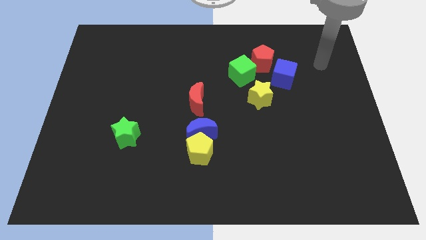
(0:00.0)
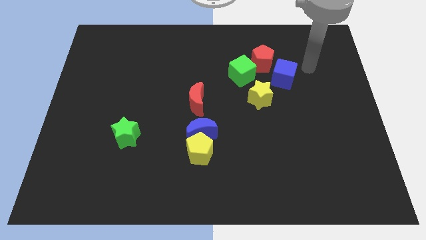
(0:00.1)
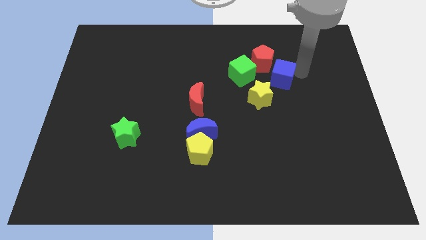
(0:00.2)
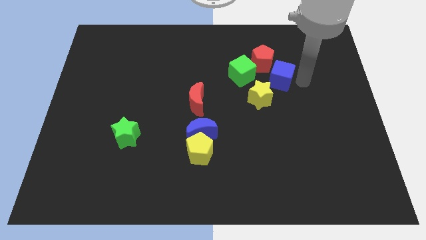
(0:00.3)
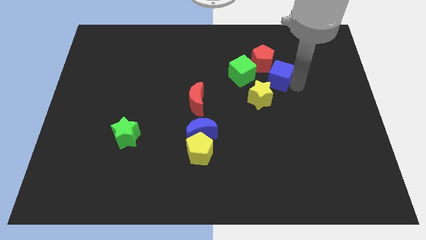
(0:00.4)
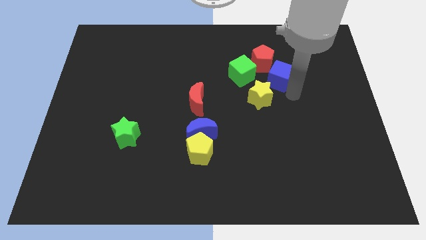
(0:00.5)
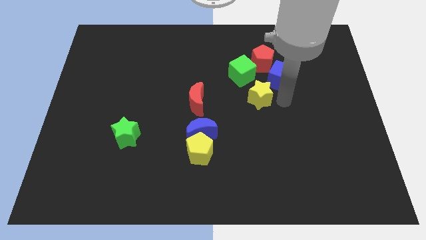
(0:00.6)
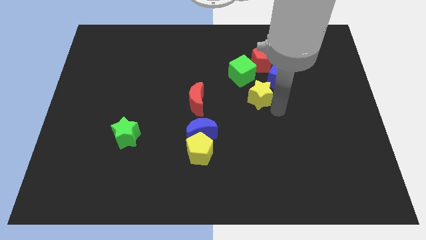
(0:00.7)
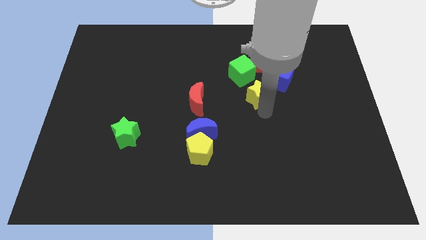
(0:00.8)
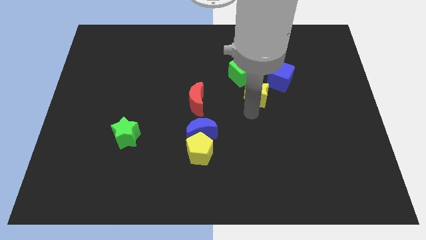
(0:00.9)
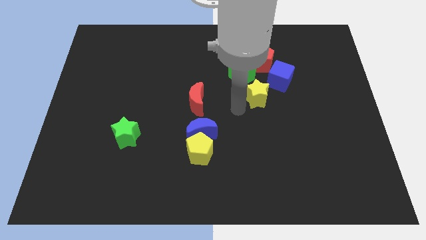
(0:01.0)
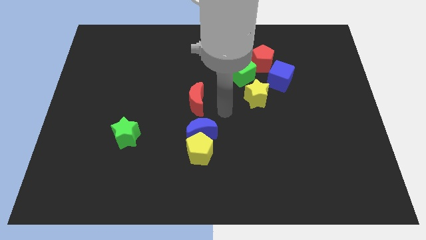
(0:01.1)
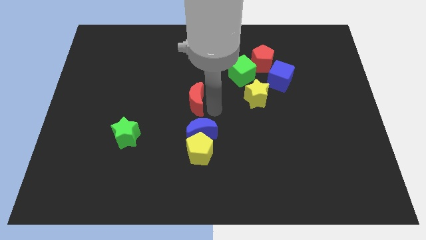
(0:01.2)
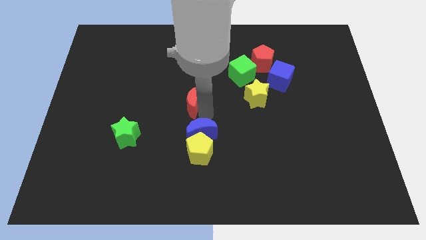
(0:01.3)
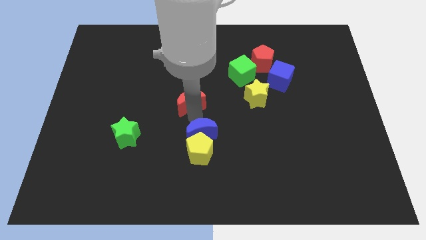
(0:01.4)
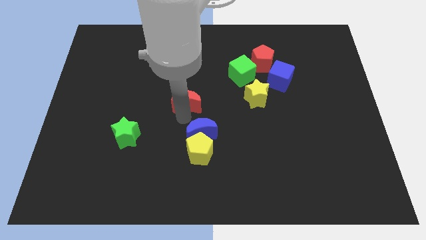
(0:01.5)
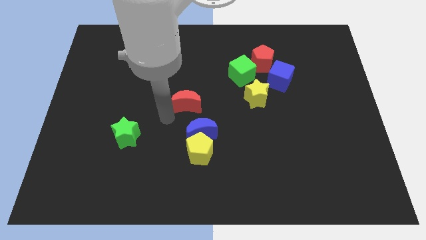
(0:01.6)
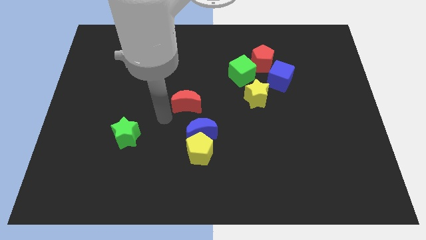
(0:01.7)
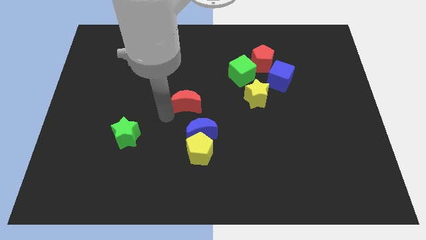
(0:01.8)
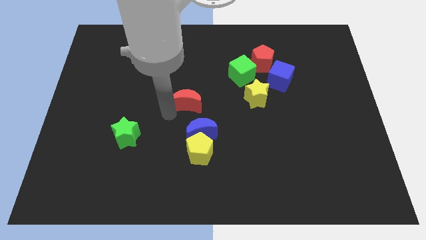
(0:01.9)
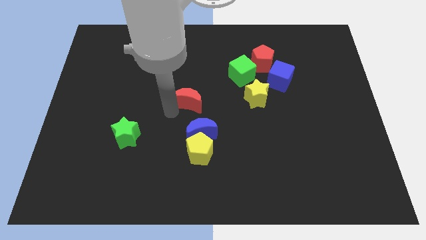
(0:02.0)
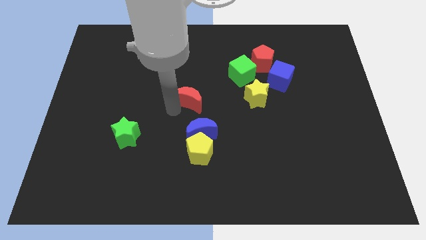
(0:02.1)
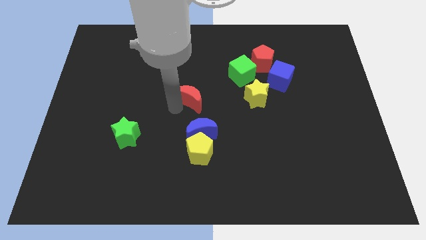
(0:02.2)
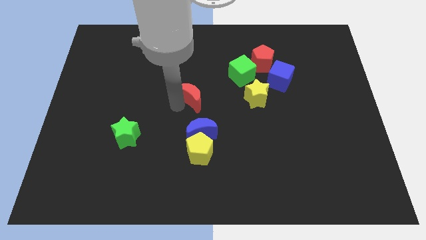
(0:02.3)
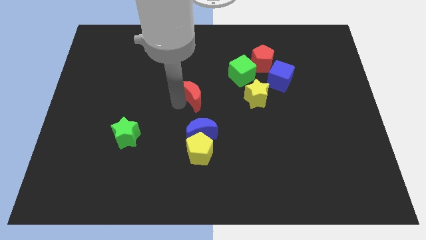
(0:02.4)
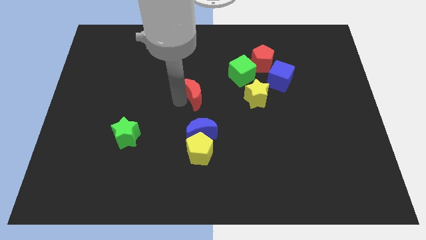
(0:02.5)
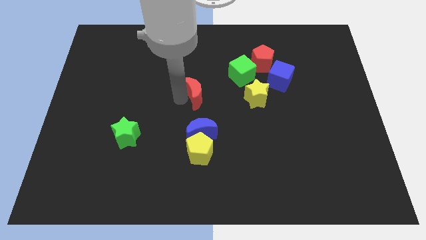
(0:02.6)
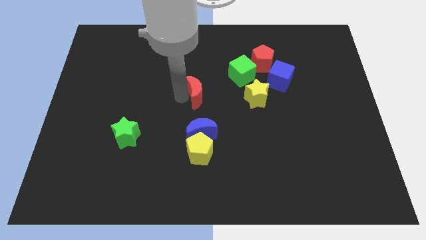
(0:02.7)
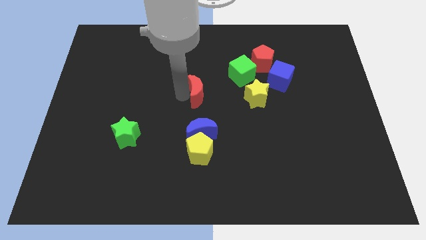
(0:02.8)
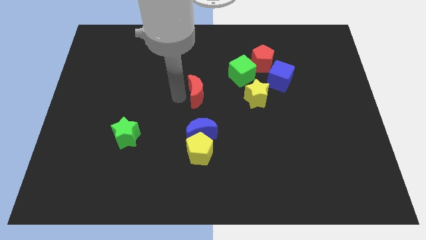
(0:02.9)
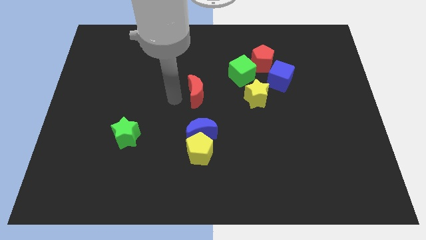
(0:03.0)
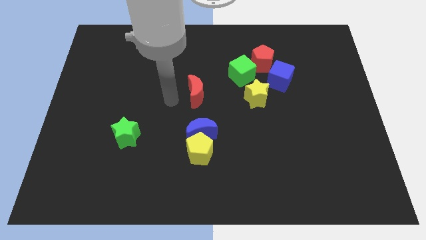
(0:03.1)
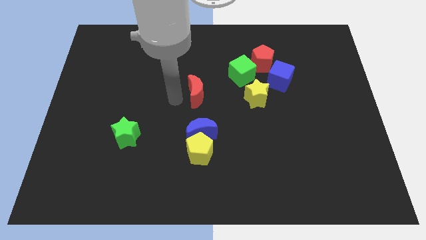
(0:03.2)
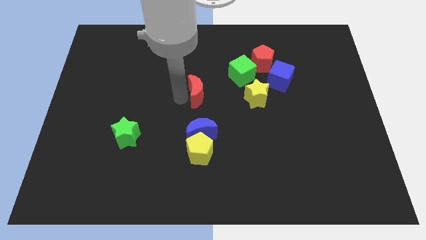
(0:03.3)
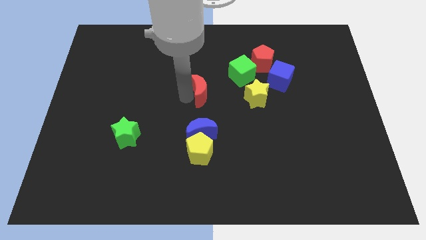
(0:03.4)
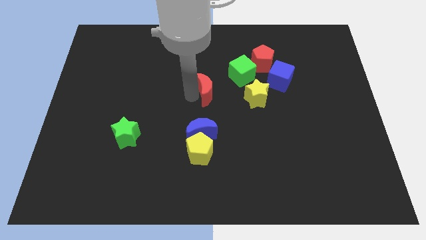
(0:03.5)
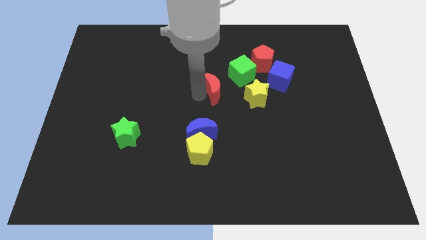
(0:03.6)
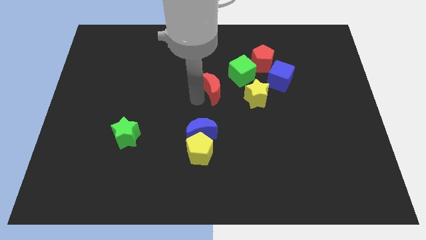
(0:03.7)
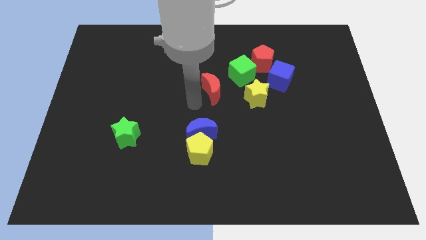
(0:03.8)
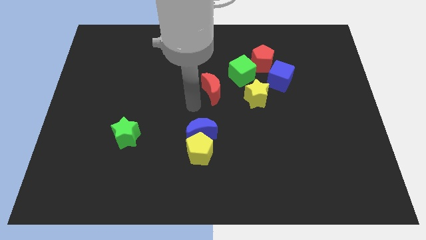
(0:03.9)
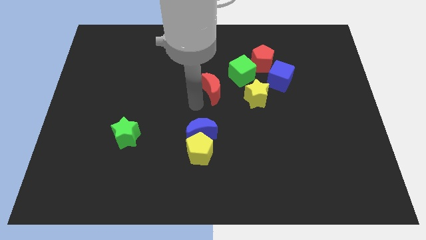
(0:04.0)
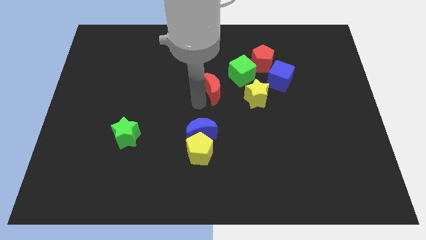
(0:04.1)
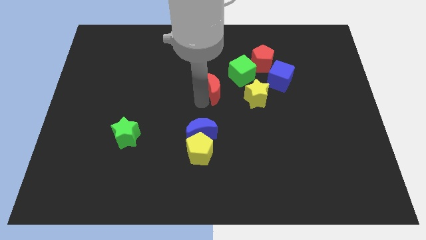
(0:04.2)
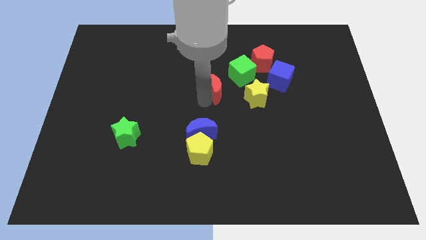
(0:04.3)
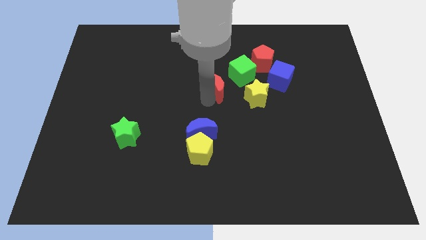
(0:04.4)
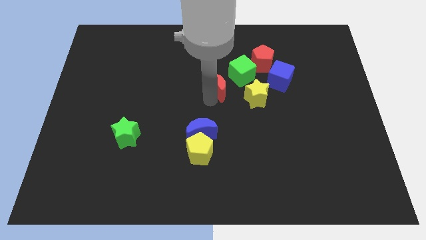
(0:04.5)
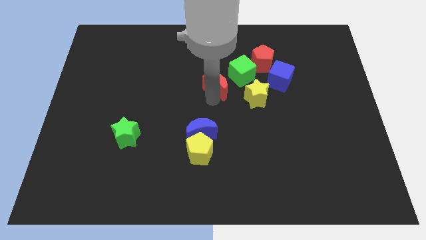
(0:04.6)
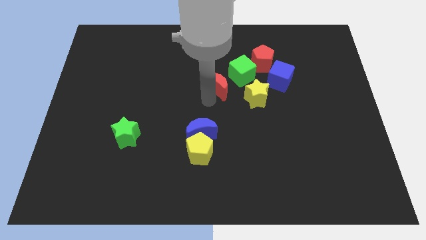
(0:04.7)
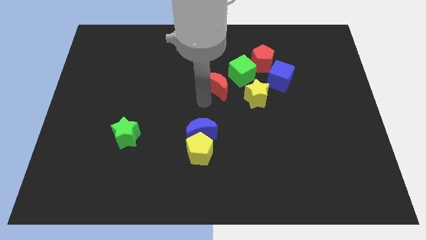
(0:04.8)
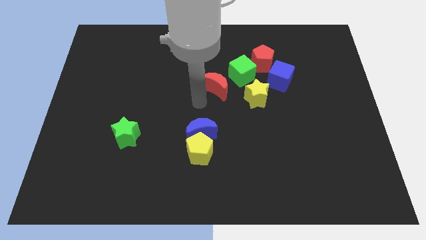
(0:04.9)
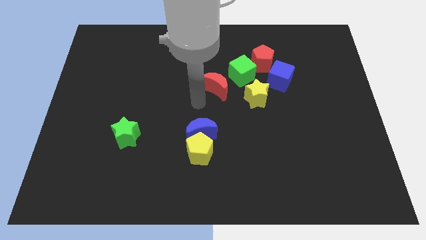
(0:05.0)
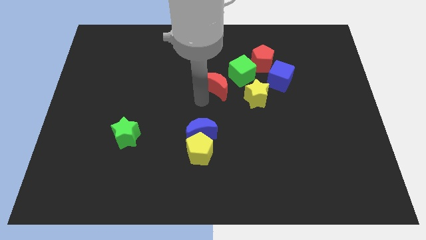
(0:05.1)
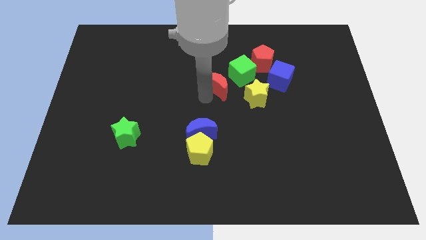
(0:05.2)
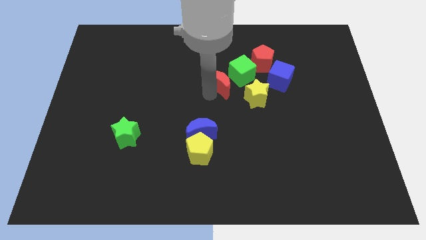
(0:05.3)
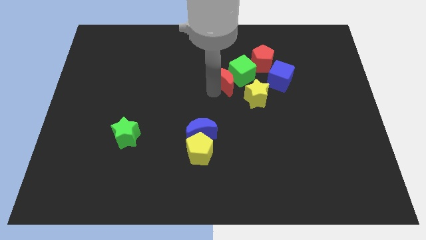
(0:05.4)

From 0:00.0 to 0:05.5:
put the red moon next to the green cube

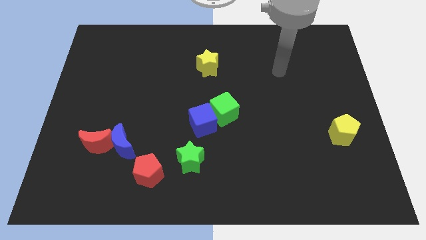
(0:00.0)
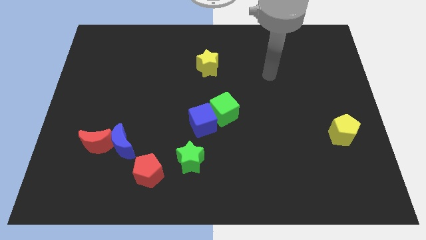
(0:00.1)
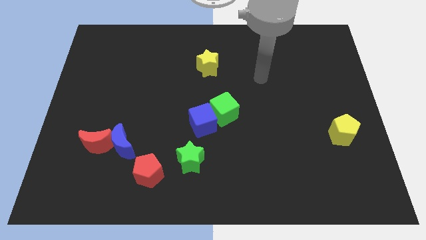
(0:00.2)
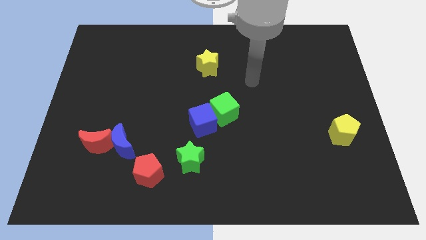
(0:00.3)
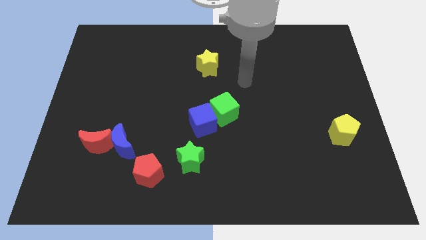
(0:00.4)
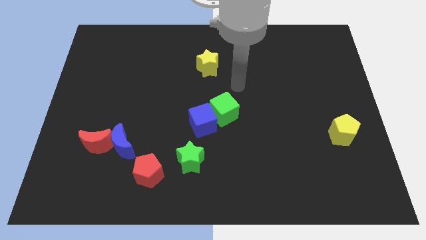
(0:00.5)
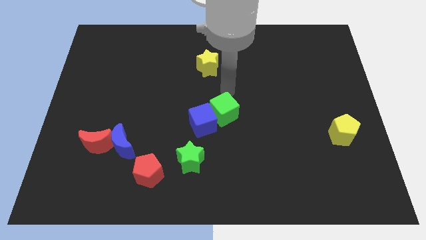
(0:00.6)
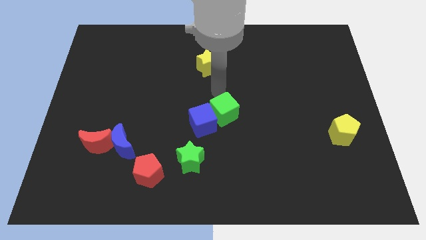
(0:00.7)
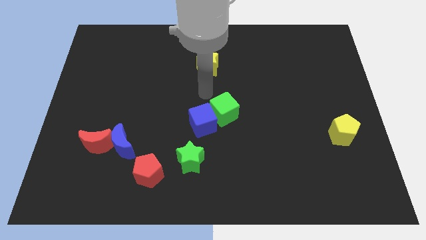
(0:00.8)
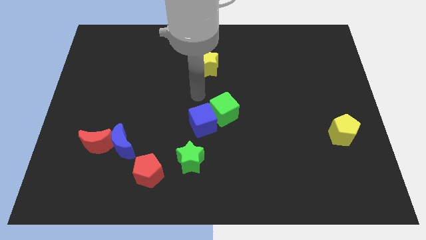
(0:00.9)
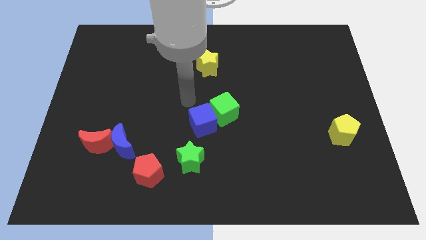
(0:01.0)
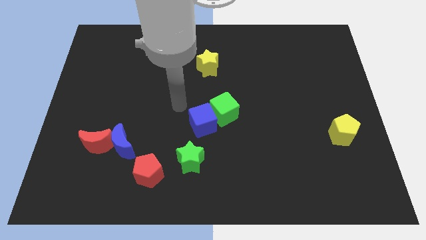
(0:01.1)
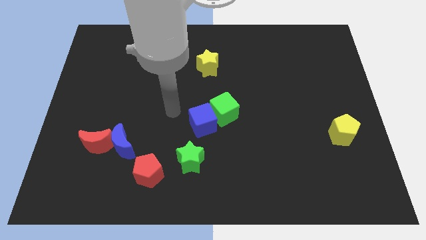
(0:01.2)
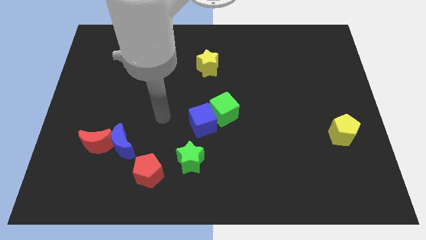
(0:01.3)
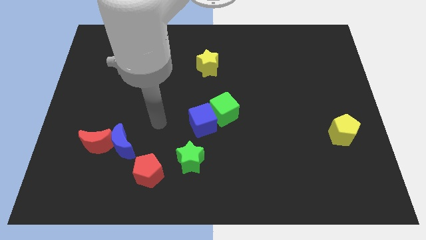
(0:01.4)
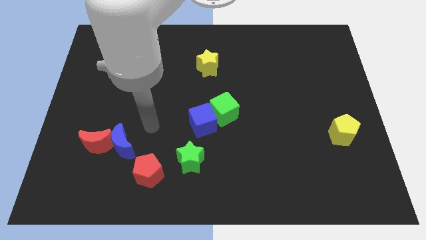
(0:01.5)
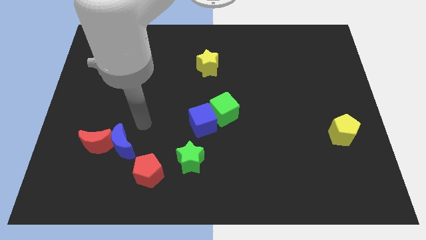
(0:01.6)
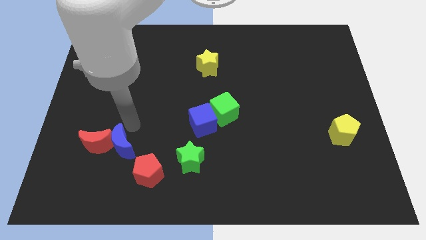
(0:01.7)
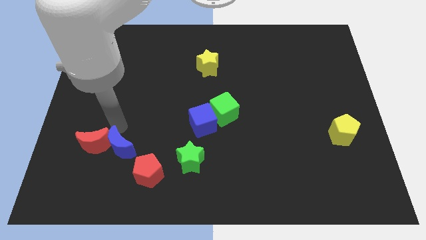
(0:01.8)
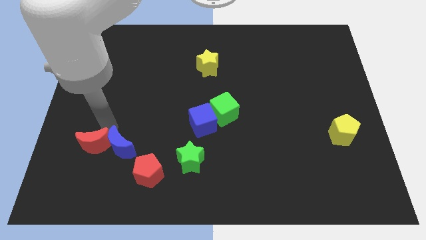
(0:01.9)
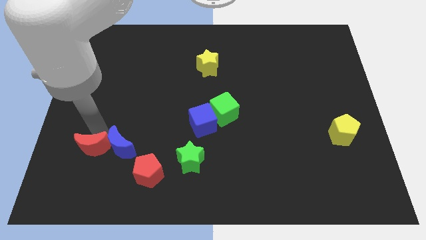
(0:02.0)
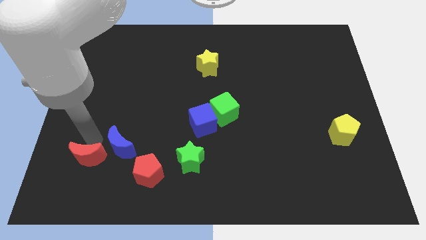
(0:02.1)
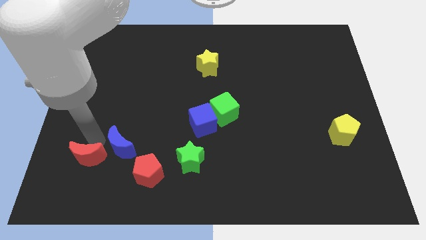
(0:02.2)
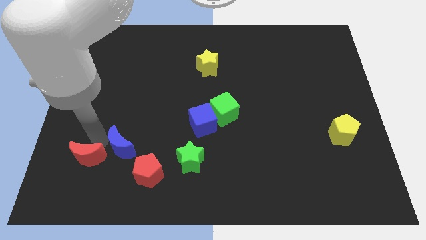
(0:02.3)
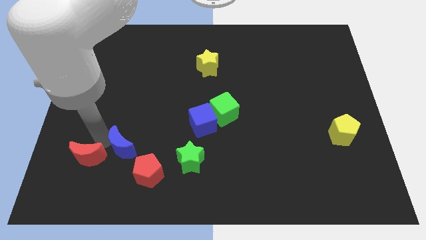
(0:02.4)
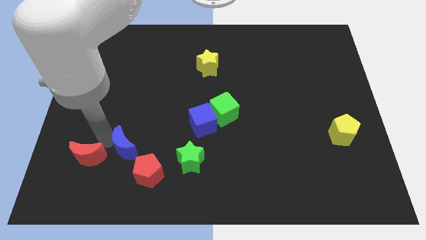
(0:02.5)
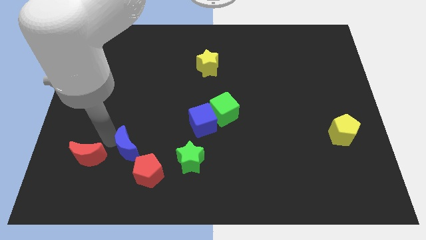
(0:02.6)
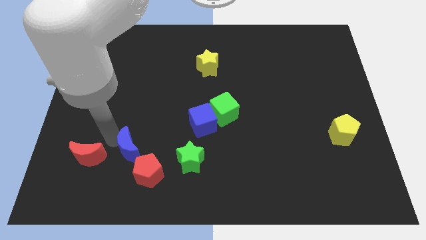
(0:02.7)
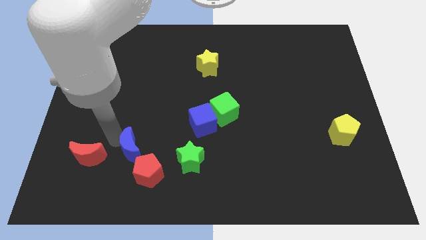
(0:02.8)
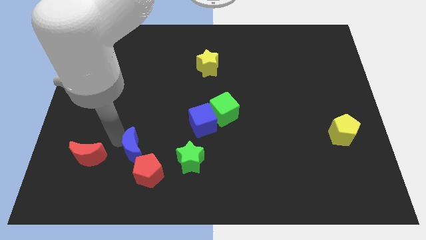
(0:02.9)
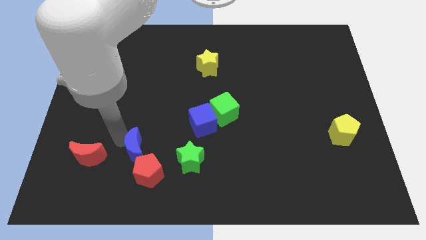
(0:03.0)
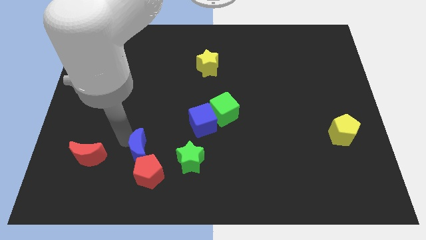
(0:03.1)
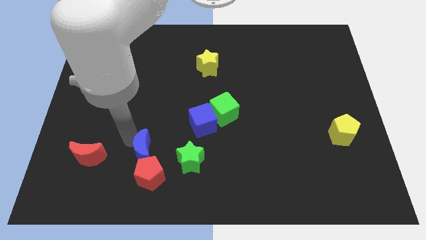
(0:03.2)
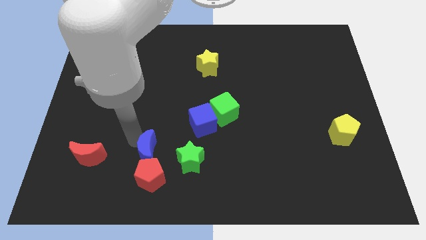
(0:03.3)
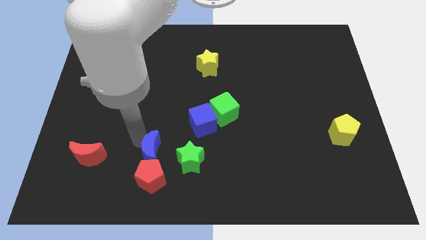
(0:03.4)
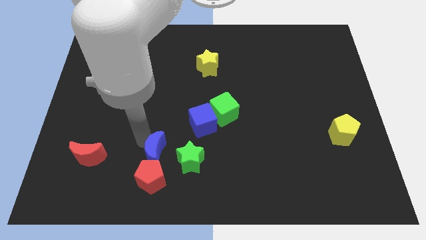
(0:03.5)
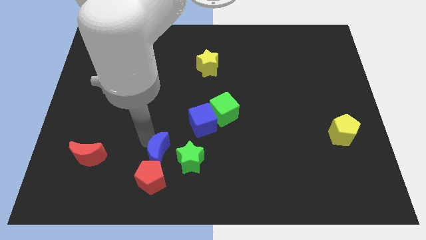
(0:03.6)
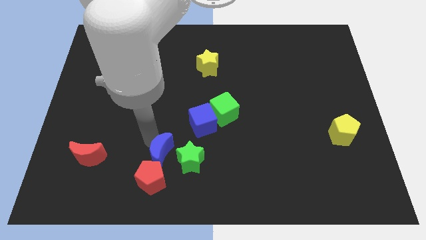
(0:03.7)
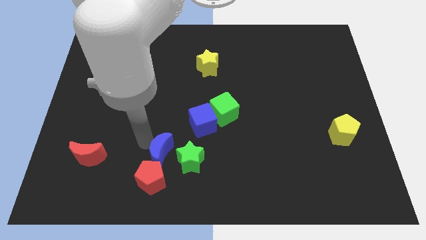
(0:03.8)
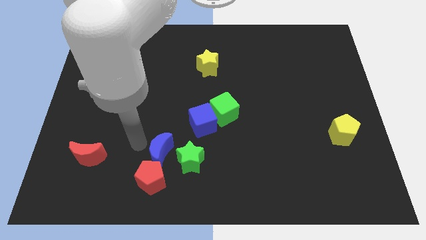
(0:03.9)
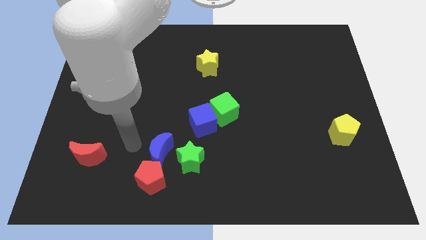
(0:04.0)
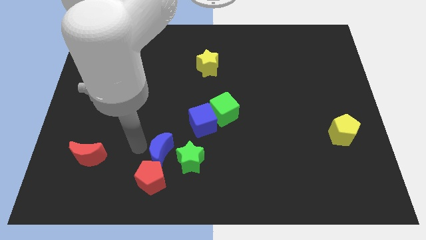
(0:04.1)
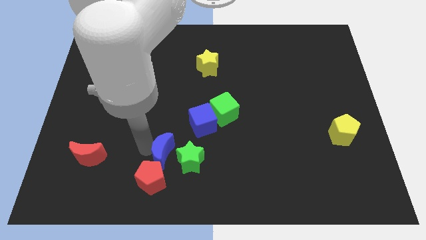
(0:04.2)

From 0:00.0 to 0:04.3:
push the blue moon close to the green star
